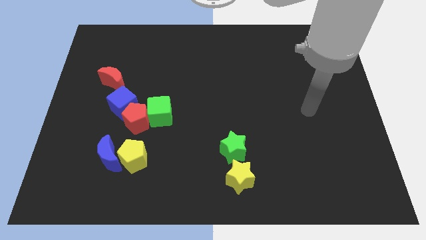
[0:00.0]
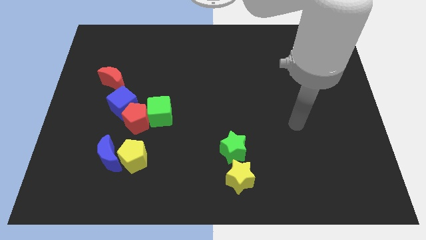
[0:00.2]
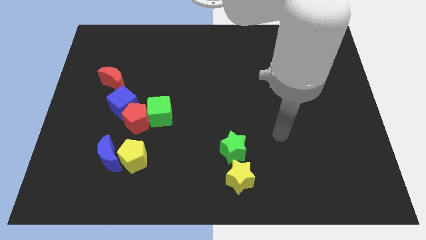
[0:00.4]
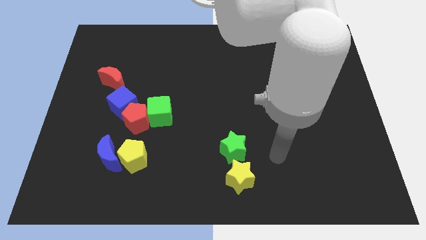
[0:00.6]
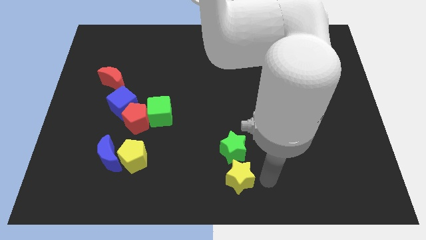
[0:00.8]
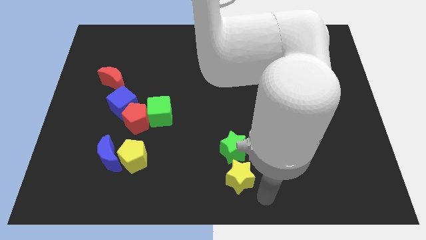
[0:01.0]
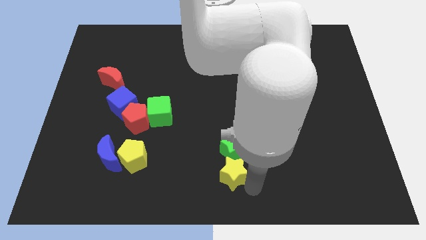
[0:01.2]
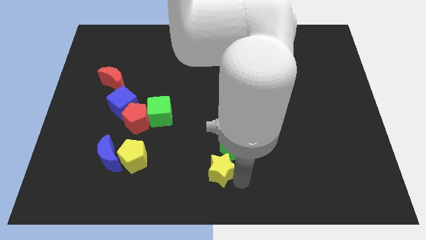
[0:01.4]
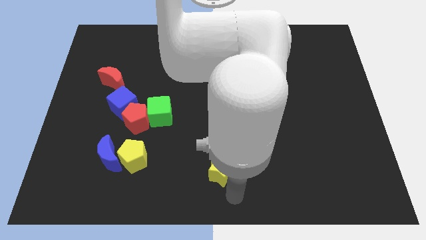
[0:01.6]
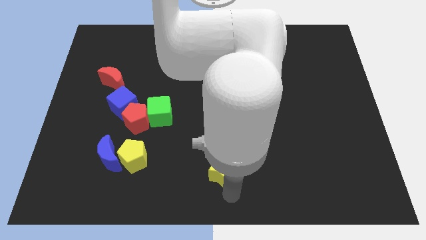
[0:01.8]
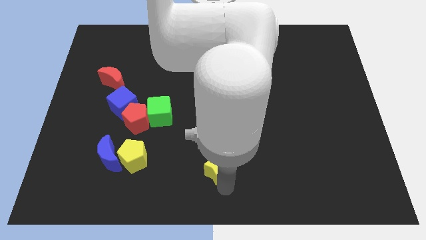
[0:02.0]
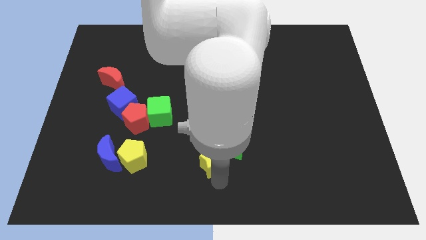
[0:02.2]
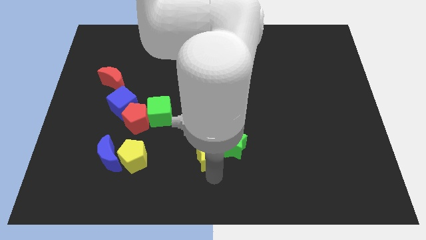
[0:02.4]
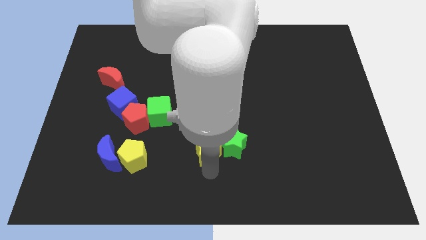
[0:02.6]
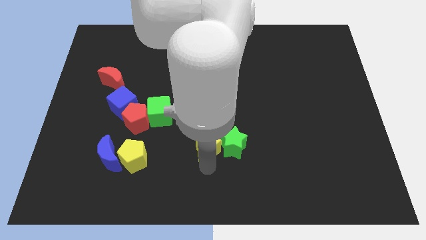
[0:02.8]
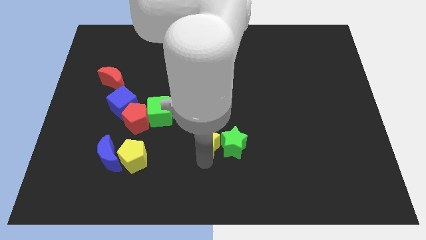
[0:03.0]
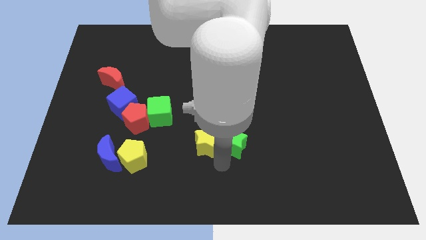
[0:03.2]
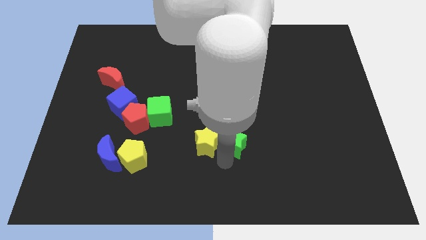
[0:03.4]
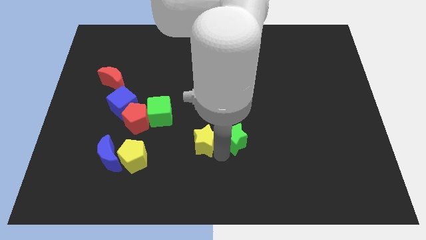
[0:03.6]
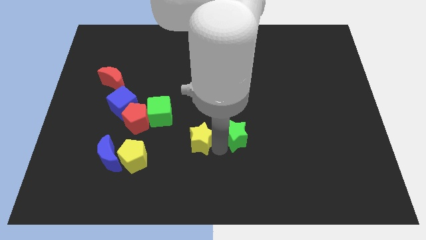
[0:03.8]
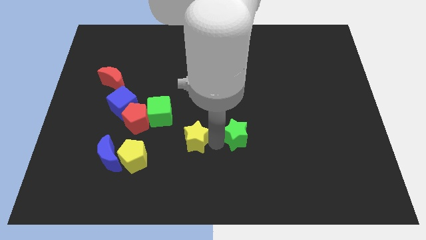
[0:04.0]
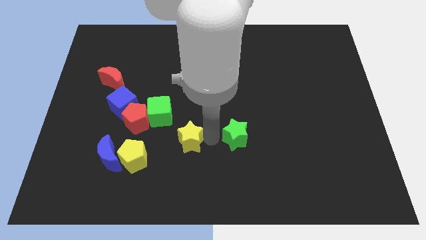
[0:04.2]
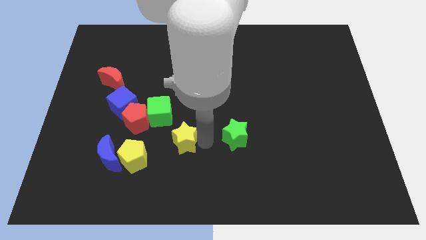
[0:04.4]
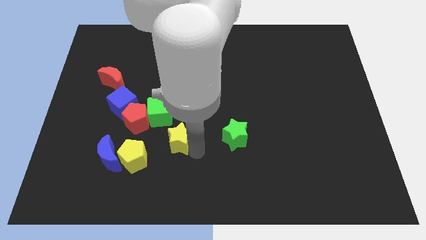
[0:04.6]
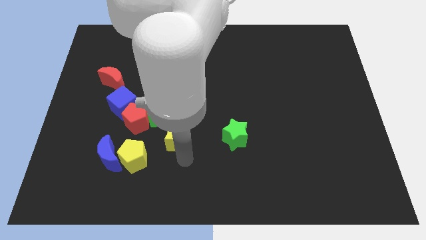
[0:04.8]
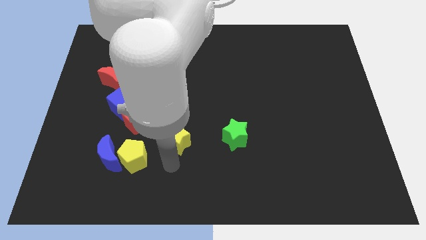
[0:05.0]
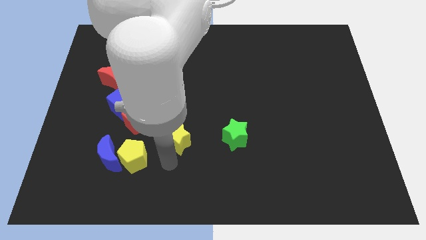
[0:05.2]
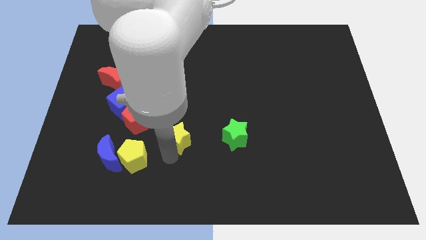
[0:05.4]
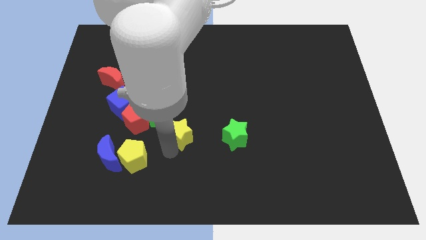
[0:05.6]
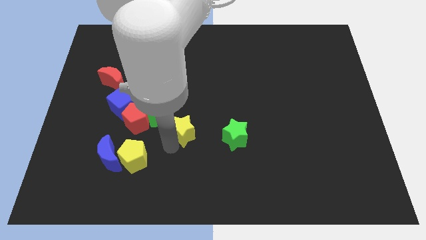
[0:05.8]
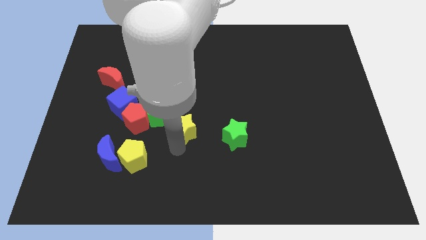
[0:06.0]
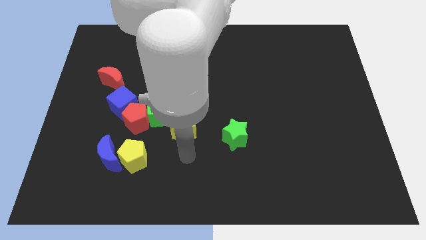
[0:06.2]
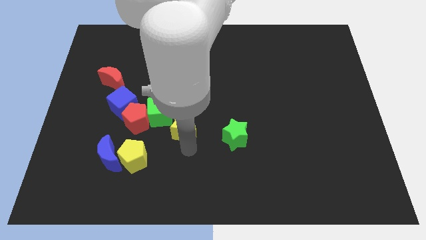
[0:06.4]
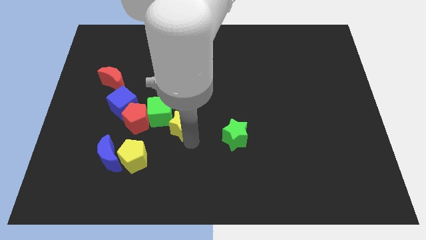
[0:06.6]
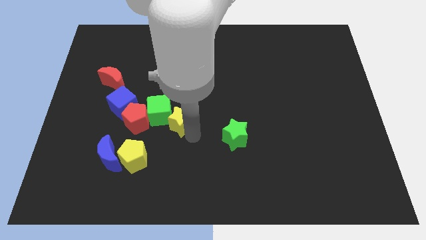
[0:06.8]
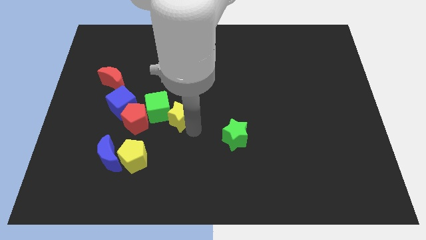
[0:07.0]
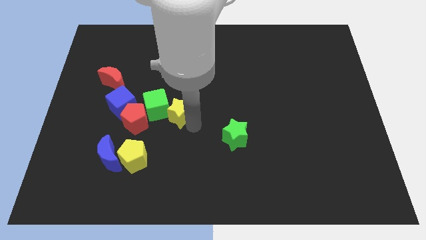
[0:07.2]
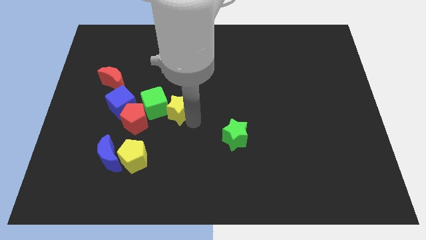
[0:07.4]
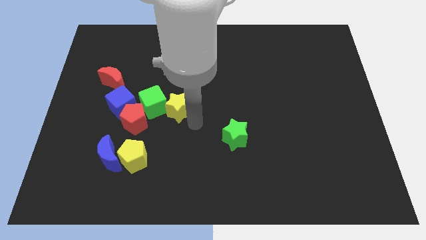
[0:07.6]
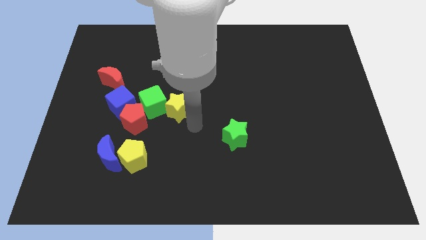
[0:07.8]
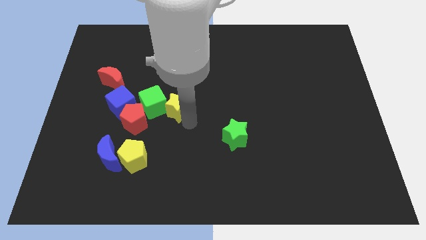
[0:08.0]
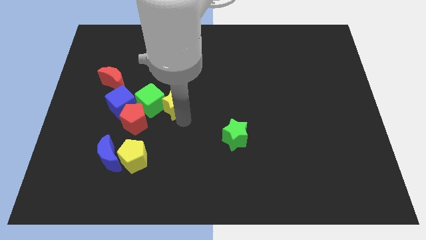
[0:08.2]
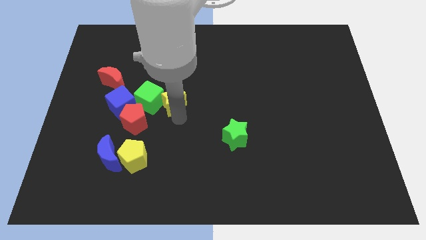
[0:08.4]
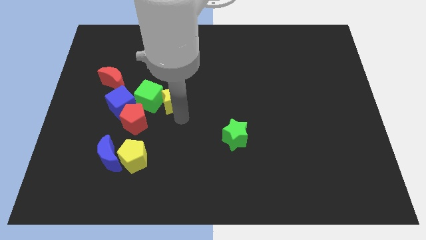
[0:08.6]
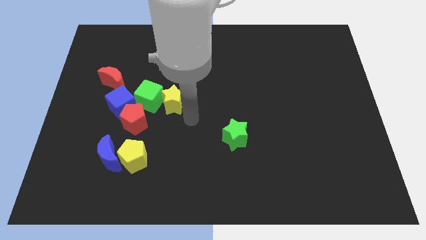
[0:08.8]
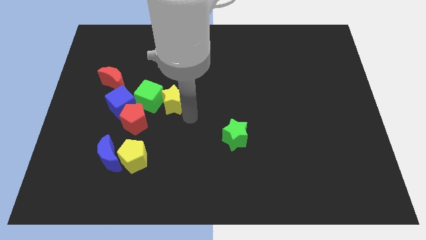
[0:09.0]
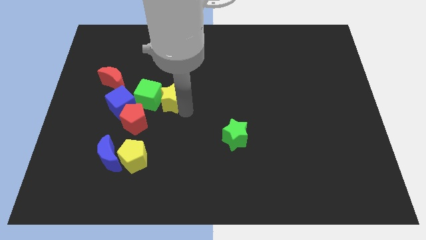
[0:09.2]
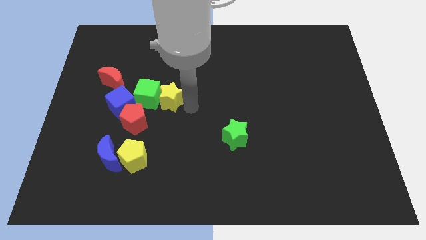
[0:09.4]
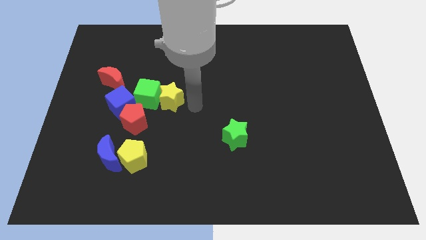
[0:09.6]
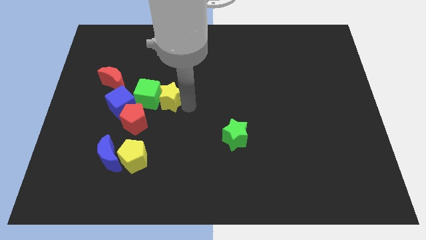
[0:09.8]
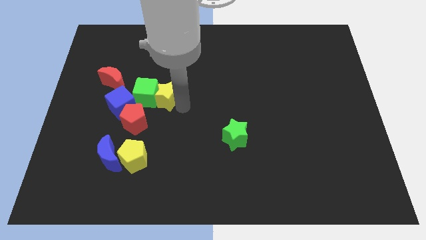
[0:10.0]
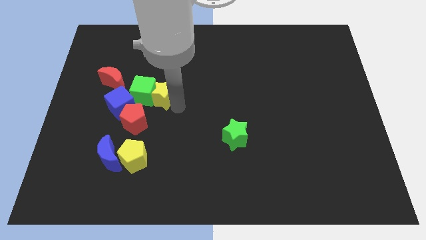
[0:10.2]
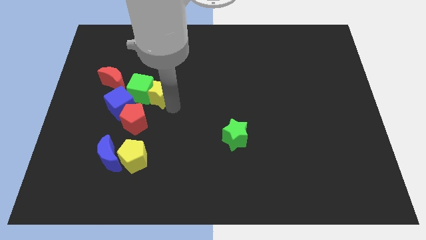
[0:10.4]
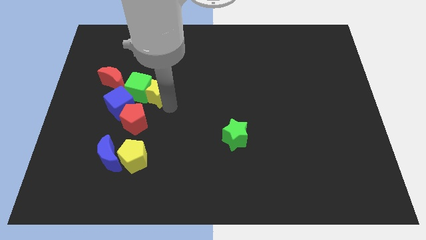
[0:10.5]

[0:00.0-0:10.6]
put the yellow star to the top of the red pentagon

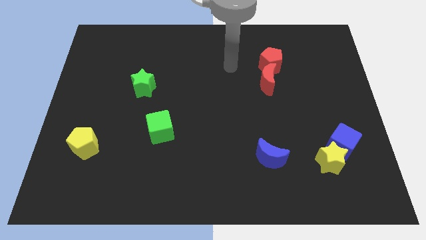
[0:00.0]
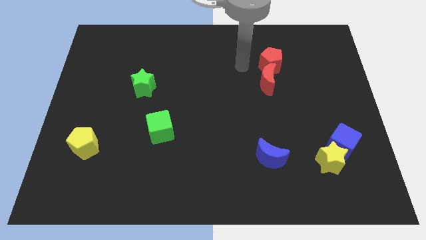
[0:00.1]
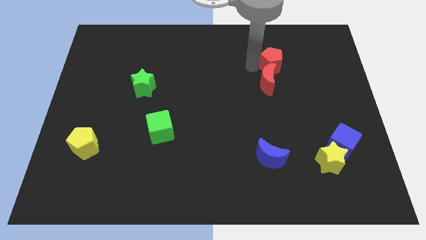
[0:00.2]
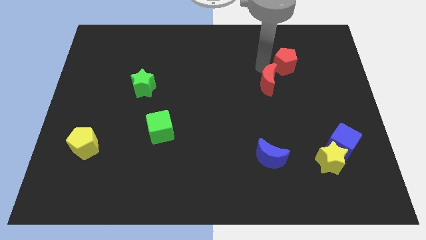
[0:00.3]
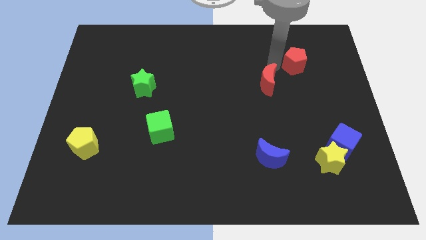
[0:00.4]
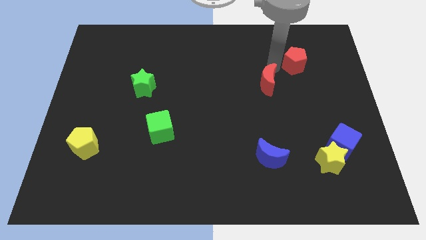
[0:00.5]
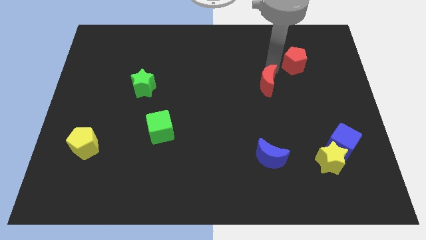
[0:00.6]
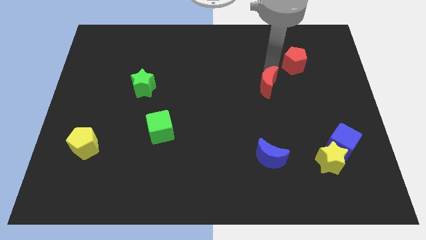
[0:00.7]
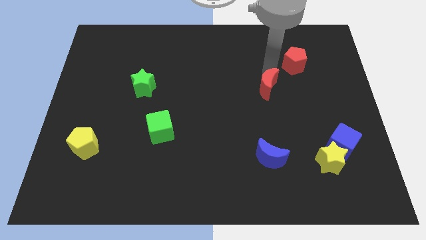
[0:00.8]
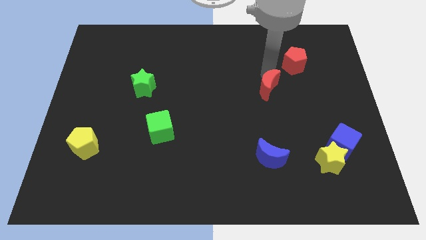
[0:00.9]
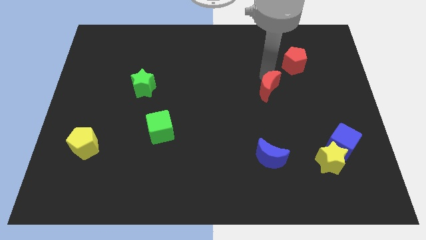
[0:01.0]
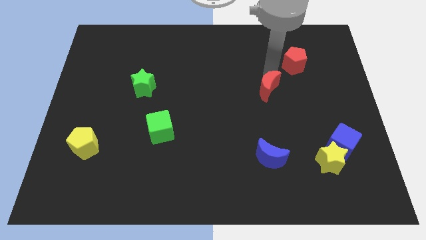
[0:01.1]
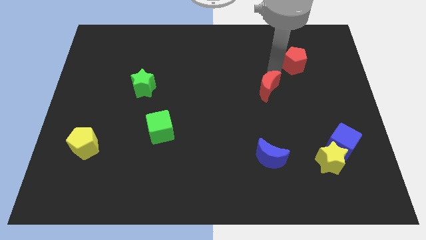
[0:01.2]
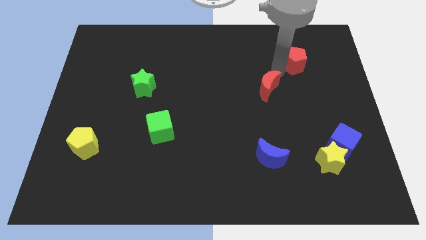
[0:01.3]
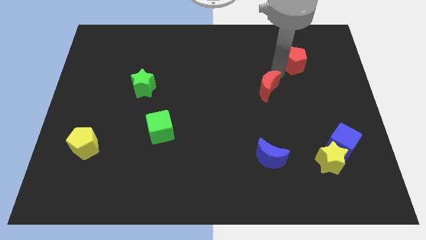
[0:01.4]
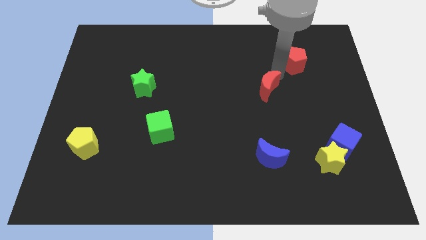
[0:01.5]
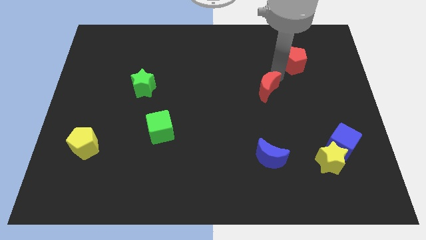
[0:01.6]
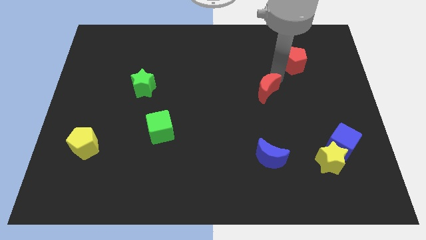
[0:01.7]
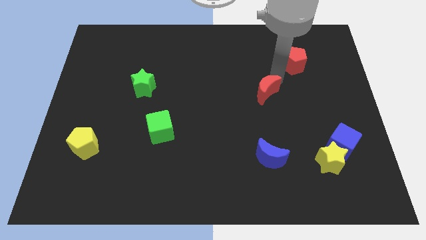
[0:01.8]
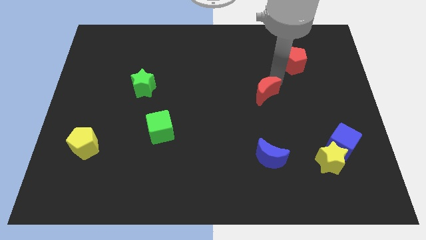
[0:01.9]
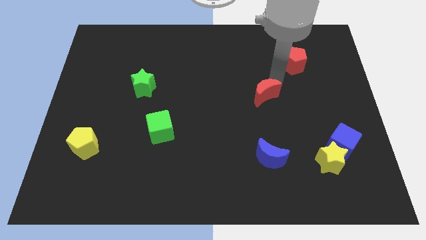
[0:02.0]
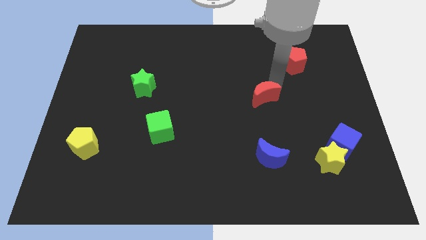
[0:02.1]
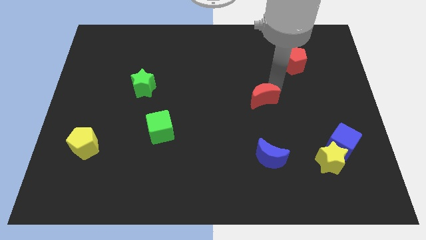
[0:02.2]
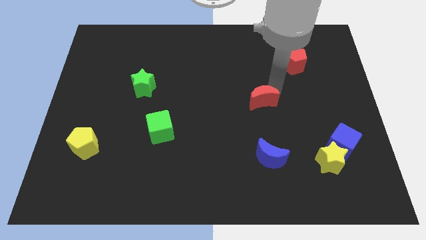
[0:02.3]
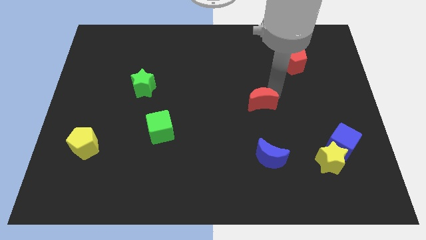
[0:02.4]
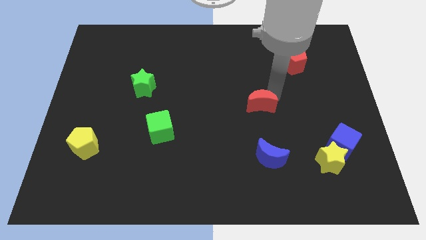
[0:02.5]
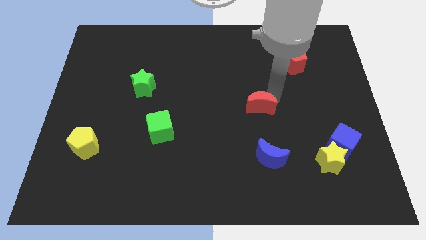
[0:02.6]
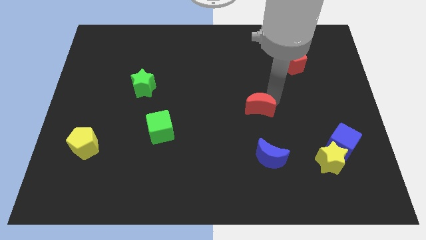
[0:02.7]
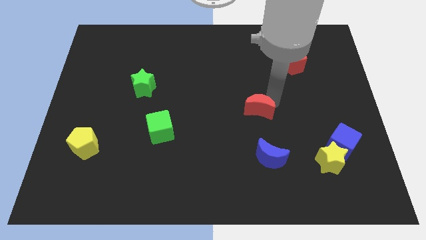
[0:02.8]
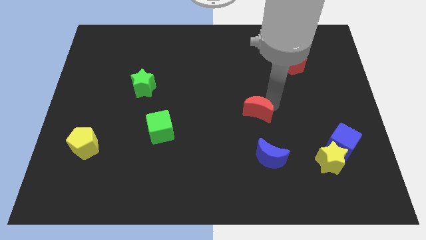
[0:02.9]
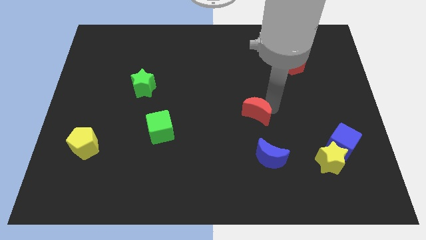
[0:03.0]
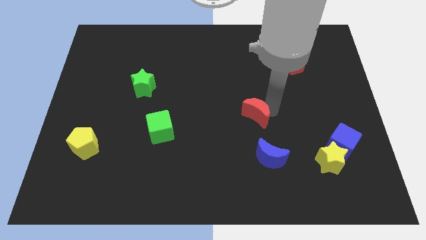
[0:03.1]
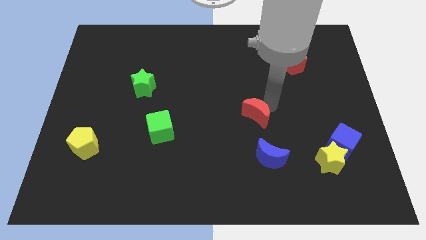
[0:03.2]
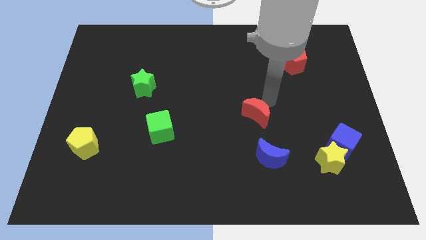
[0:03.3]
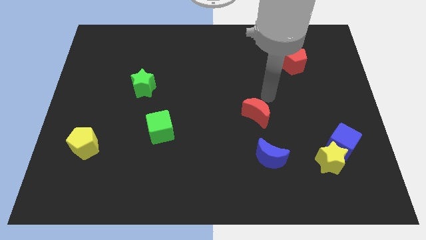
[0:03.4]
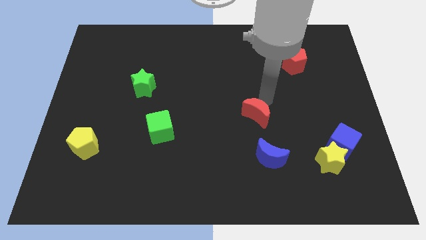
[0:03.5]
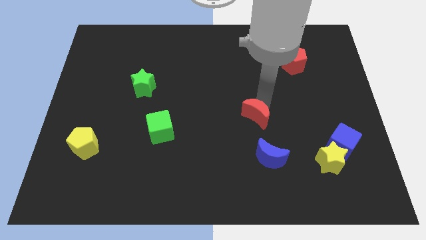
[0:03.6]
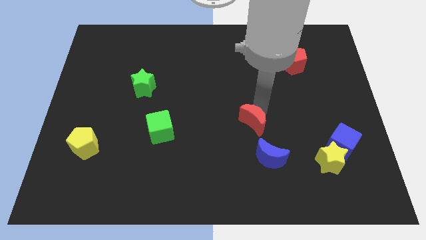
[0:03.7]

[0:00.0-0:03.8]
put the red moon to the top left of the blue moon
